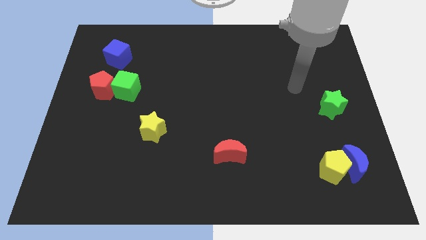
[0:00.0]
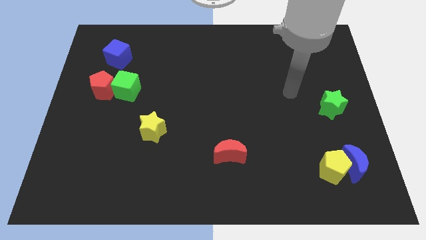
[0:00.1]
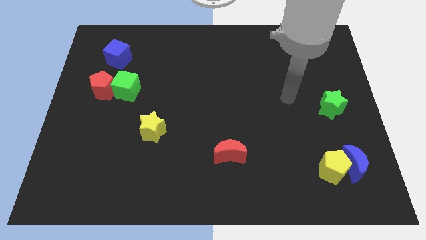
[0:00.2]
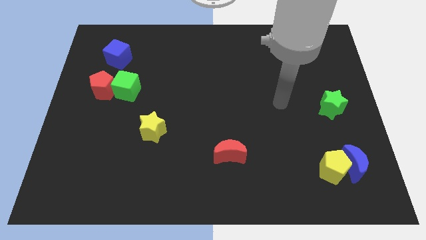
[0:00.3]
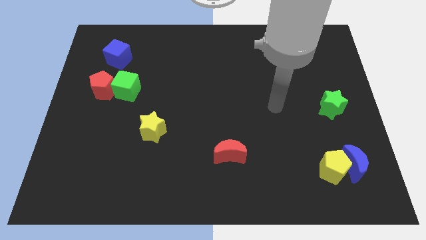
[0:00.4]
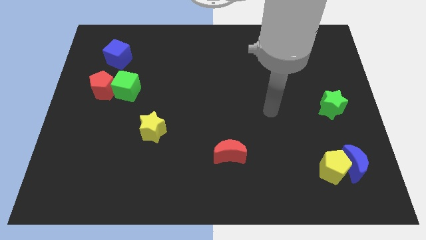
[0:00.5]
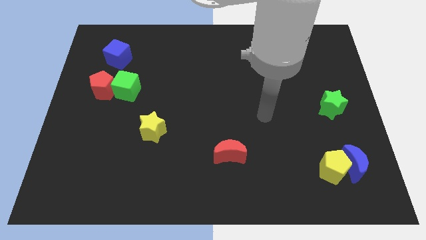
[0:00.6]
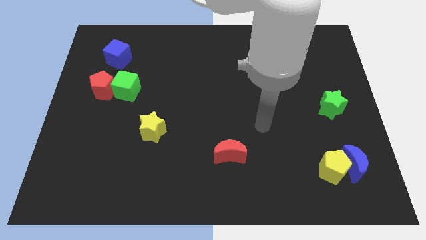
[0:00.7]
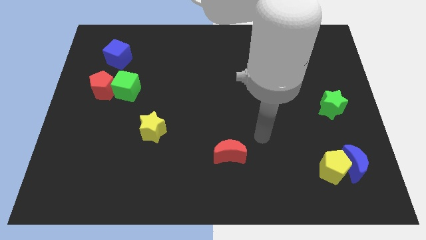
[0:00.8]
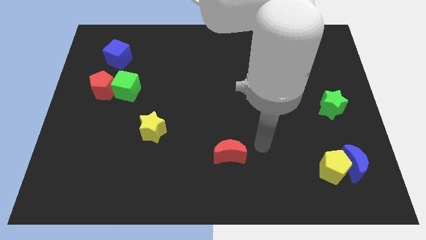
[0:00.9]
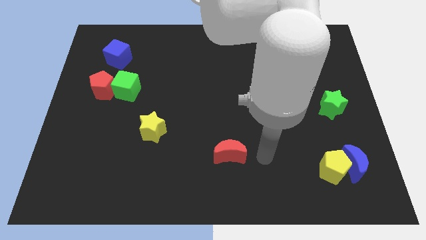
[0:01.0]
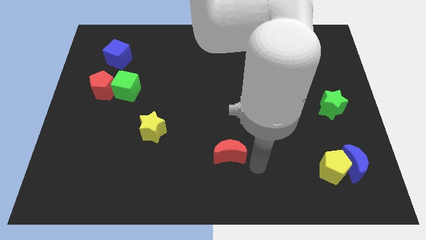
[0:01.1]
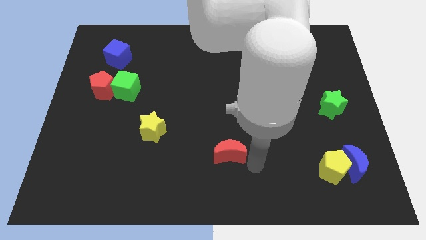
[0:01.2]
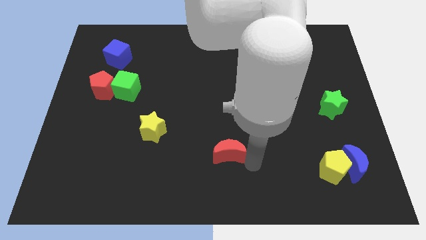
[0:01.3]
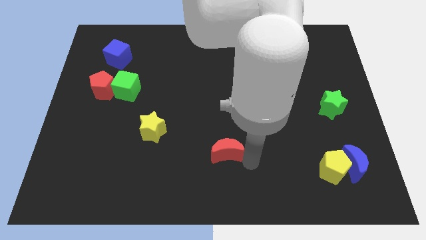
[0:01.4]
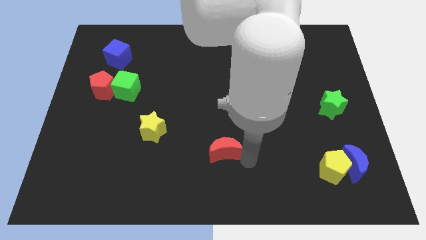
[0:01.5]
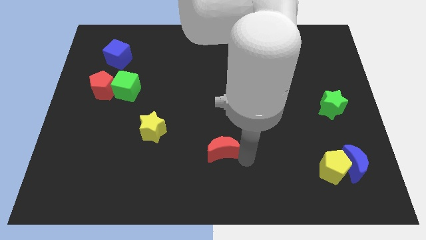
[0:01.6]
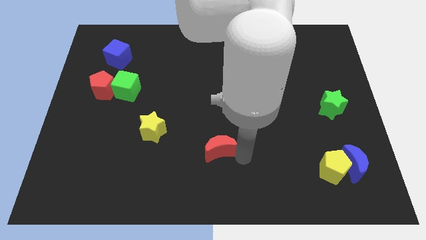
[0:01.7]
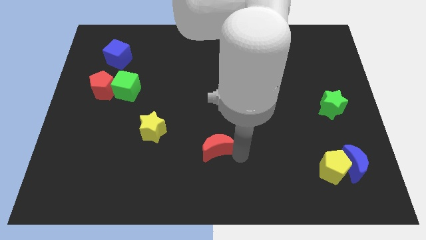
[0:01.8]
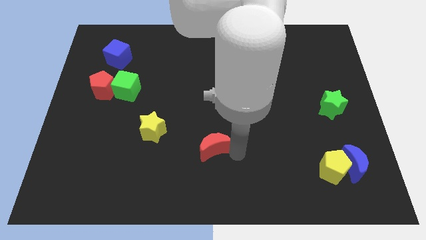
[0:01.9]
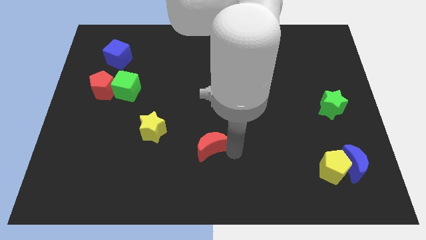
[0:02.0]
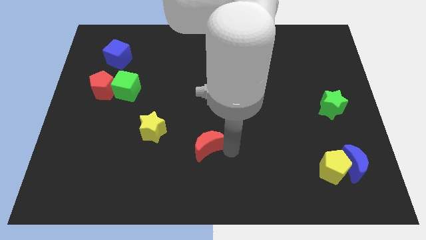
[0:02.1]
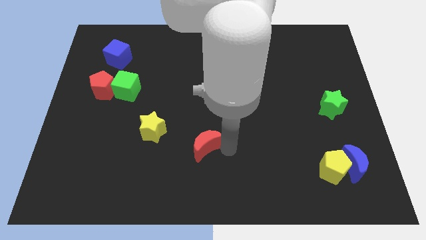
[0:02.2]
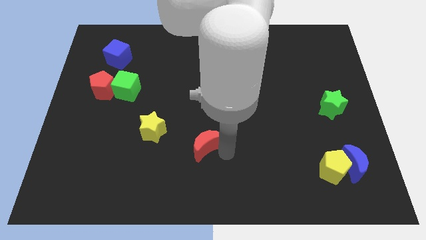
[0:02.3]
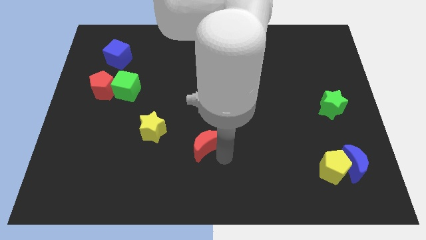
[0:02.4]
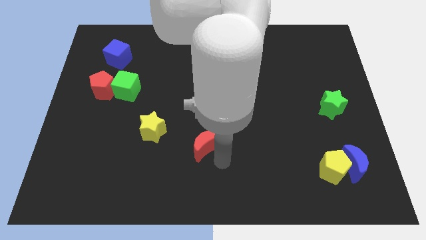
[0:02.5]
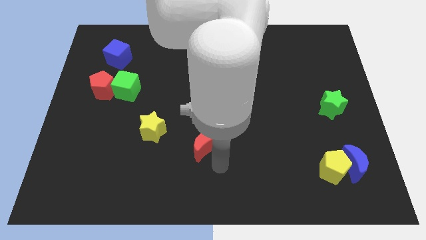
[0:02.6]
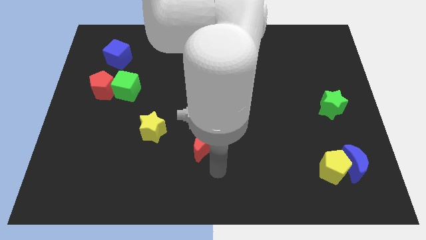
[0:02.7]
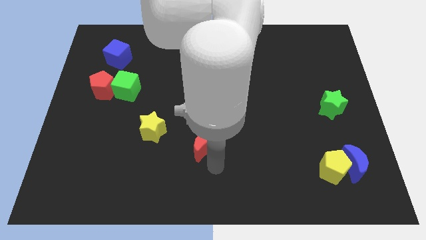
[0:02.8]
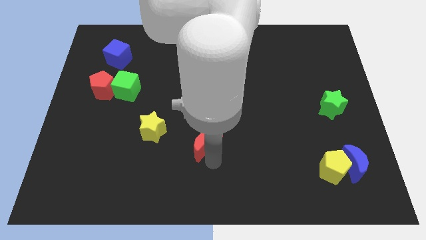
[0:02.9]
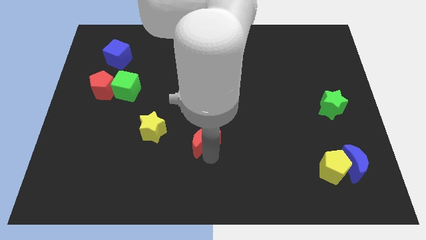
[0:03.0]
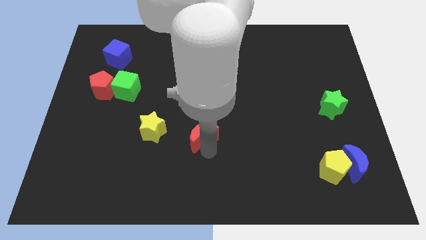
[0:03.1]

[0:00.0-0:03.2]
move the red moon a little bit upwards and then left

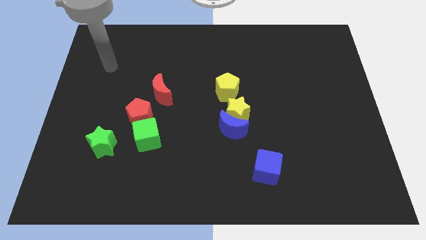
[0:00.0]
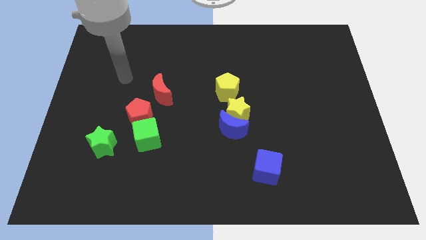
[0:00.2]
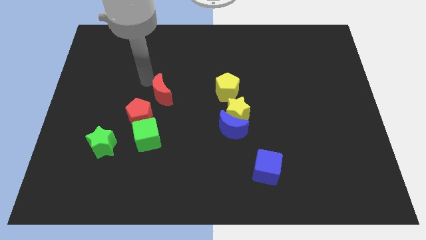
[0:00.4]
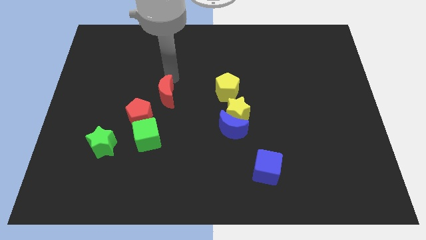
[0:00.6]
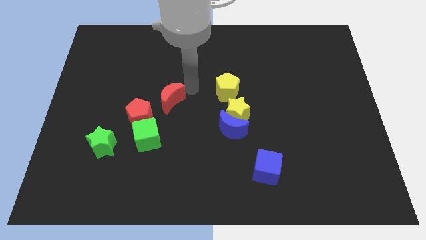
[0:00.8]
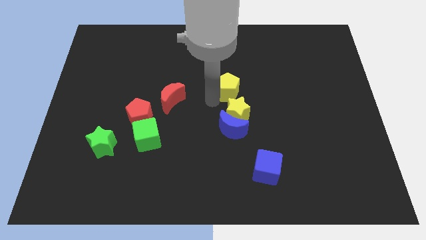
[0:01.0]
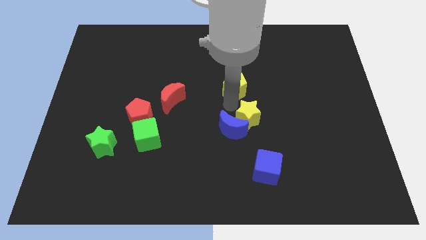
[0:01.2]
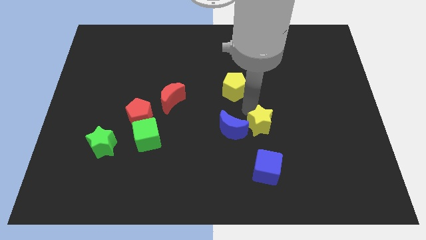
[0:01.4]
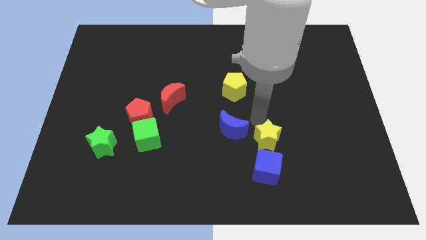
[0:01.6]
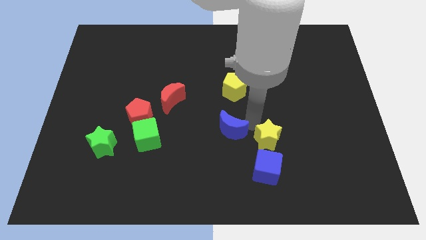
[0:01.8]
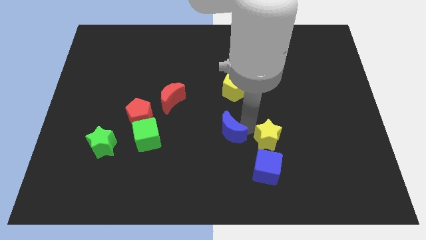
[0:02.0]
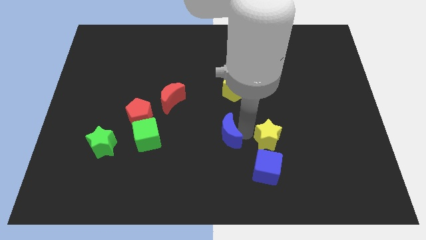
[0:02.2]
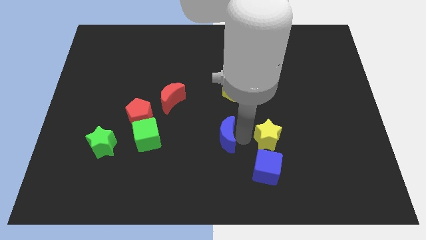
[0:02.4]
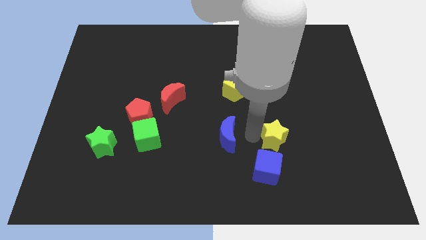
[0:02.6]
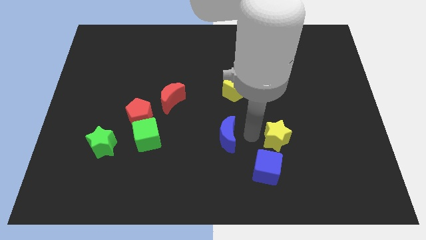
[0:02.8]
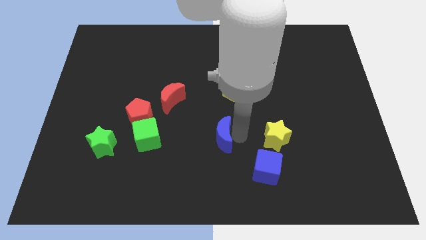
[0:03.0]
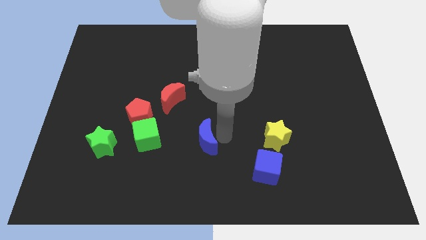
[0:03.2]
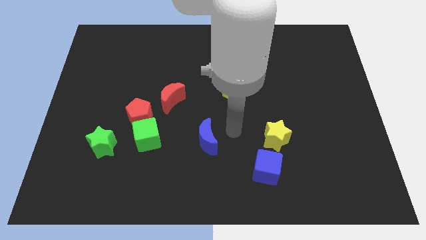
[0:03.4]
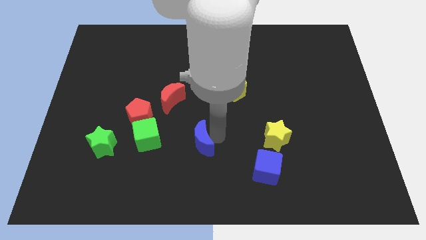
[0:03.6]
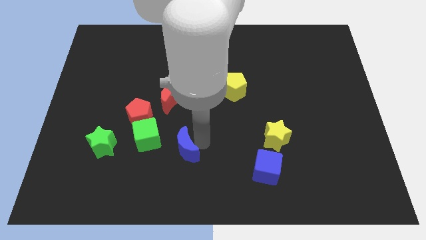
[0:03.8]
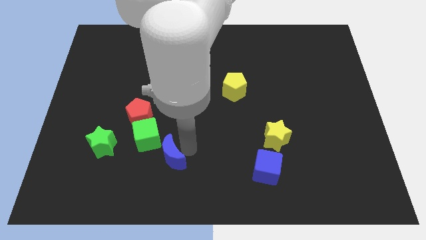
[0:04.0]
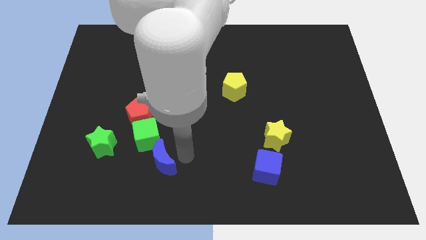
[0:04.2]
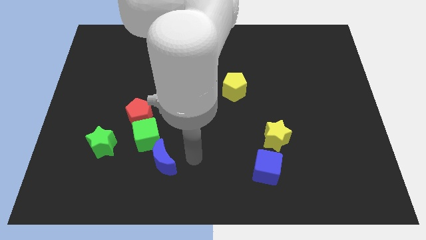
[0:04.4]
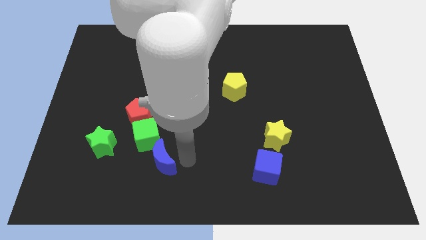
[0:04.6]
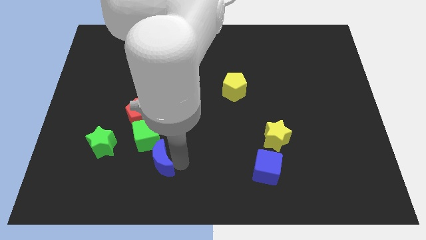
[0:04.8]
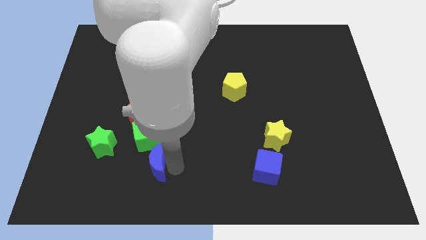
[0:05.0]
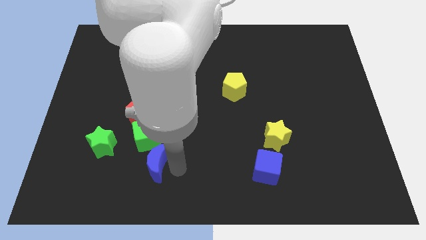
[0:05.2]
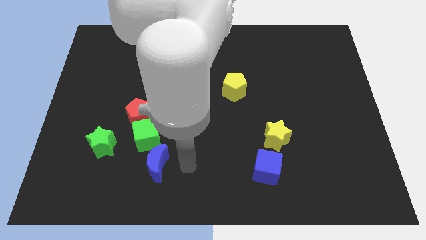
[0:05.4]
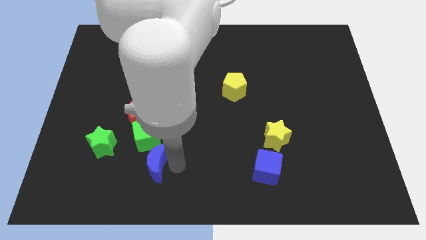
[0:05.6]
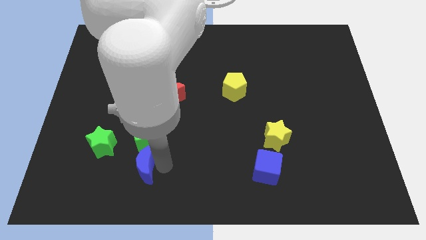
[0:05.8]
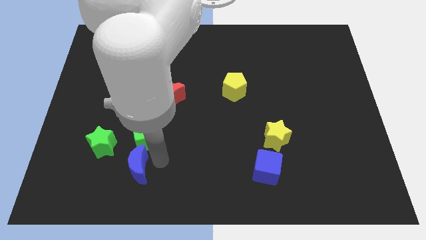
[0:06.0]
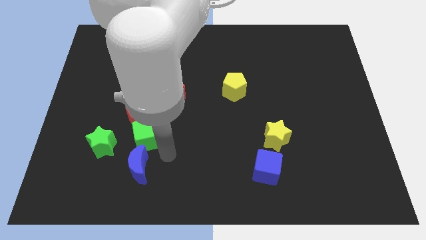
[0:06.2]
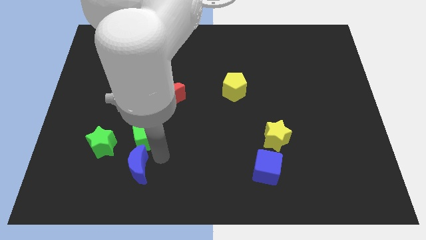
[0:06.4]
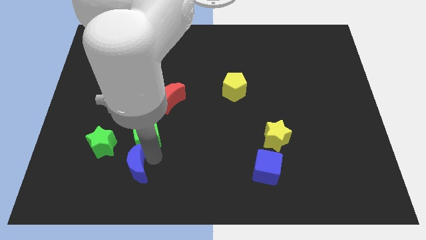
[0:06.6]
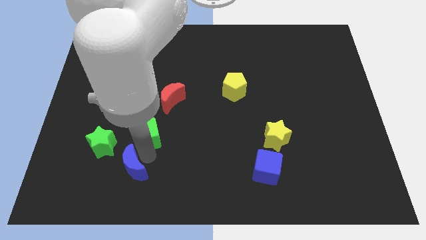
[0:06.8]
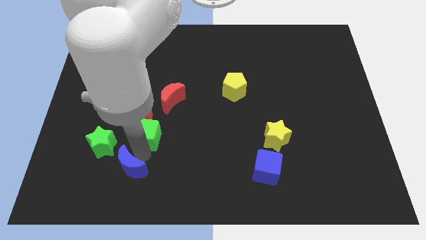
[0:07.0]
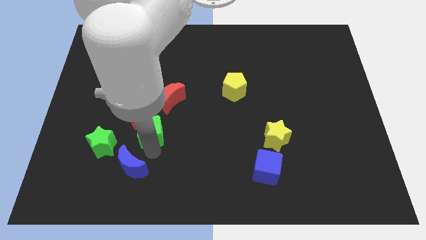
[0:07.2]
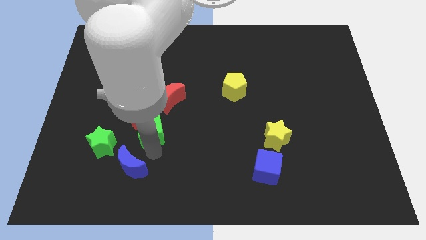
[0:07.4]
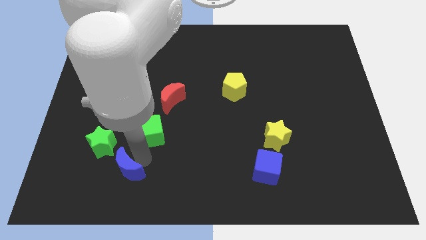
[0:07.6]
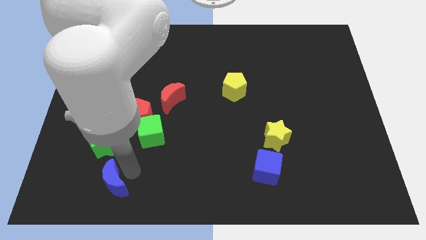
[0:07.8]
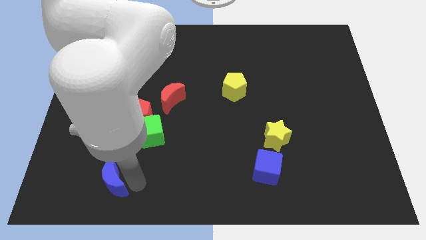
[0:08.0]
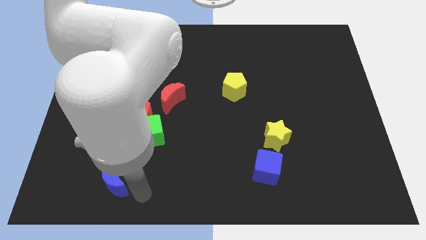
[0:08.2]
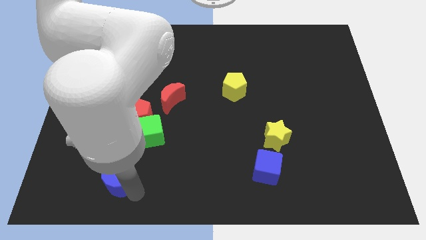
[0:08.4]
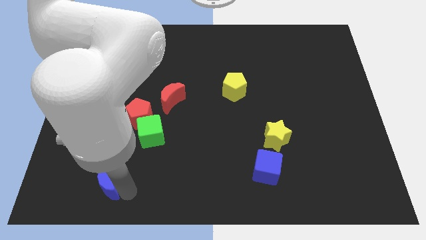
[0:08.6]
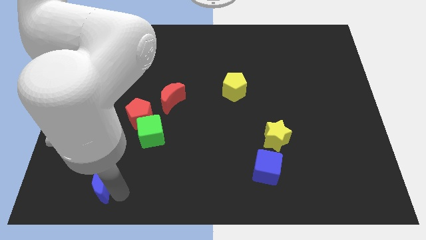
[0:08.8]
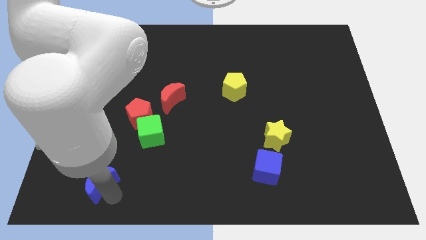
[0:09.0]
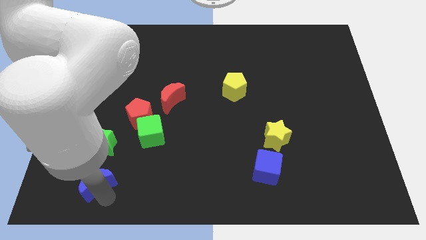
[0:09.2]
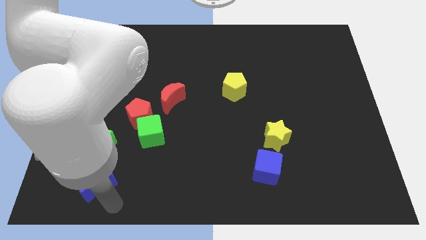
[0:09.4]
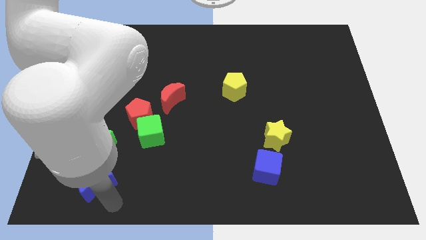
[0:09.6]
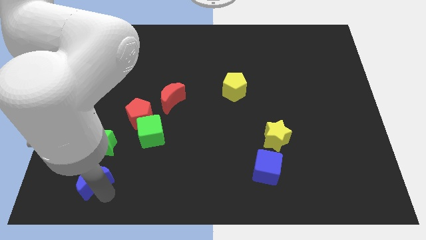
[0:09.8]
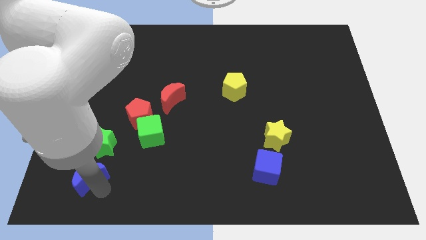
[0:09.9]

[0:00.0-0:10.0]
move the blue moon to the left
